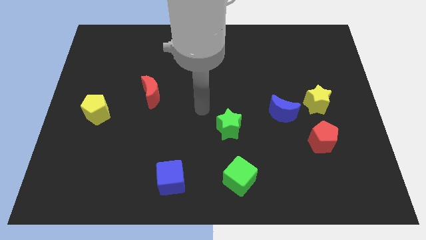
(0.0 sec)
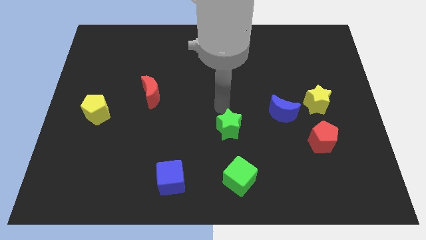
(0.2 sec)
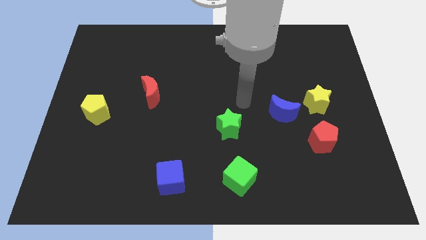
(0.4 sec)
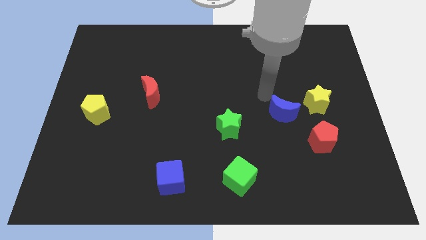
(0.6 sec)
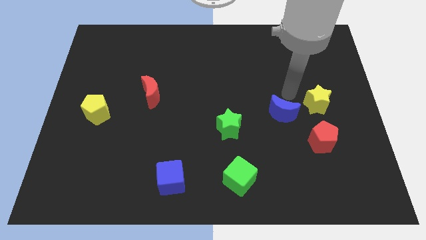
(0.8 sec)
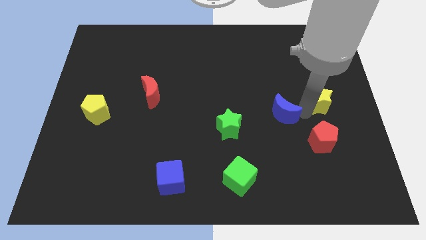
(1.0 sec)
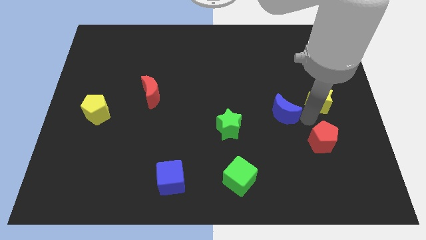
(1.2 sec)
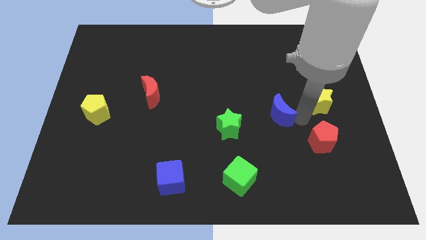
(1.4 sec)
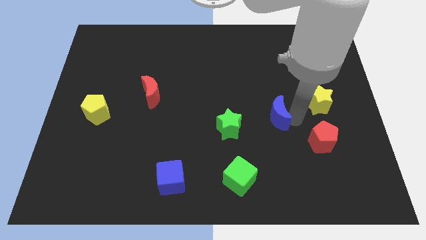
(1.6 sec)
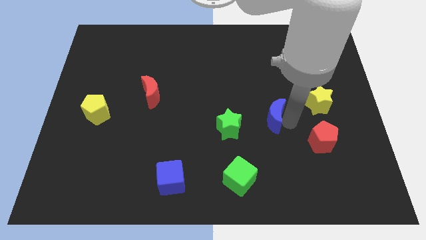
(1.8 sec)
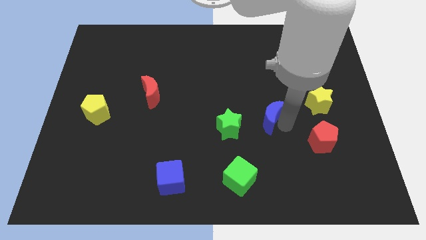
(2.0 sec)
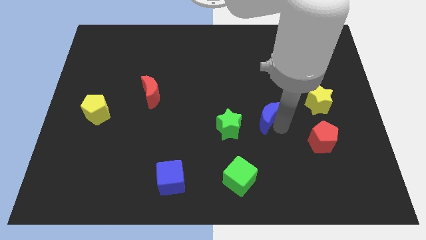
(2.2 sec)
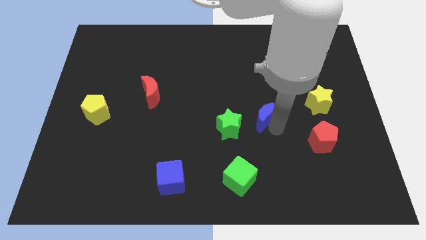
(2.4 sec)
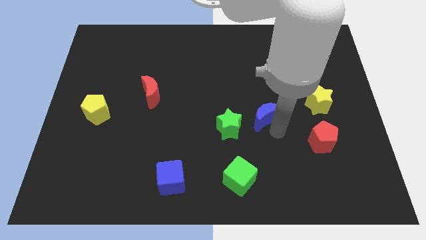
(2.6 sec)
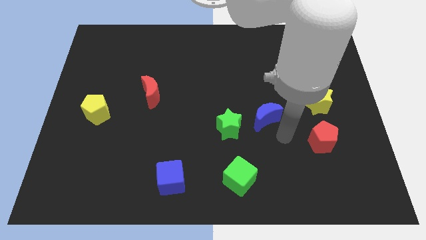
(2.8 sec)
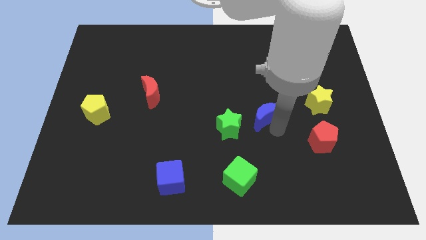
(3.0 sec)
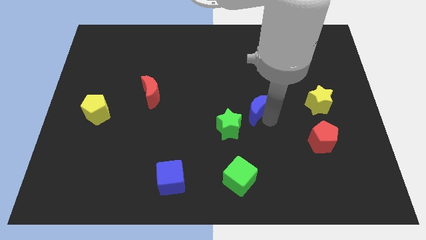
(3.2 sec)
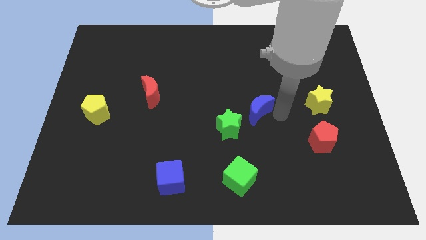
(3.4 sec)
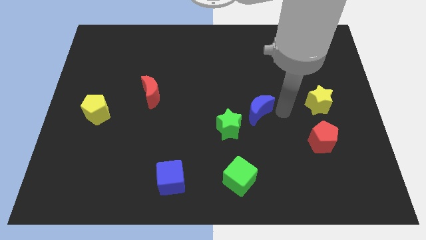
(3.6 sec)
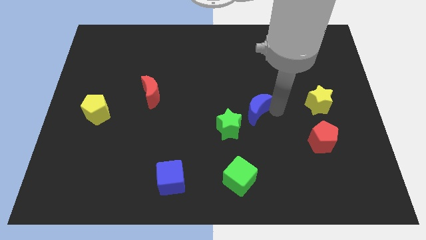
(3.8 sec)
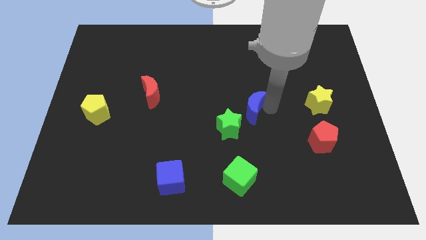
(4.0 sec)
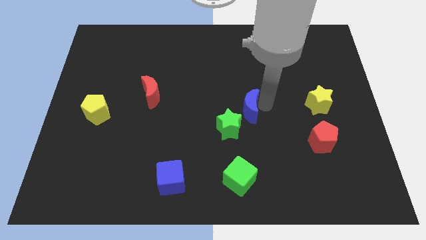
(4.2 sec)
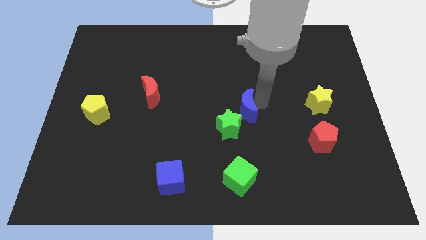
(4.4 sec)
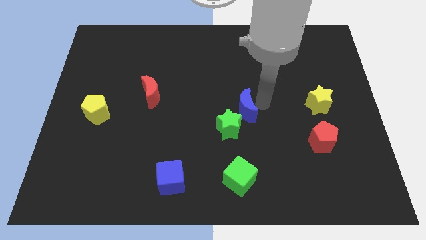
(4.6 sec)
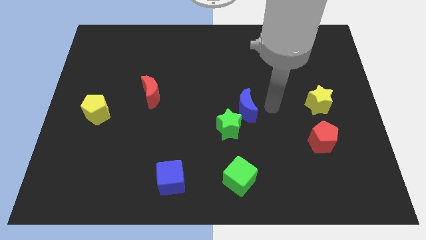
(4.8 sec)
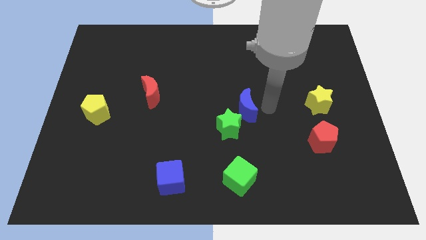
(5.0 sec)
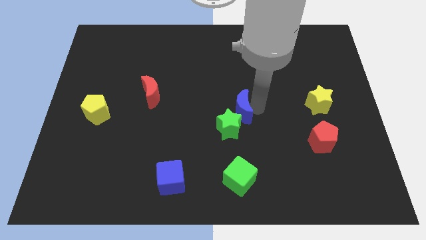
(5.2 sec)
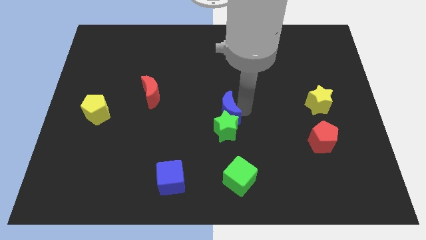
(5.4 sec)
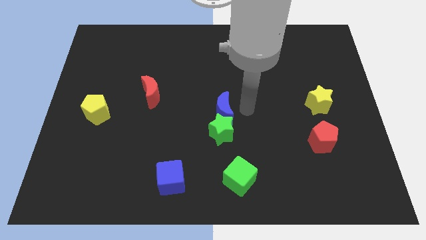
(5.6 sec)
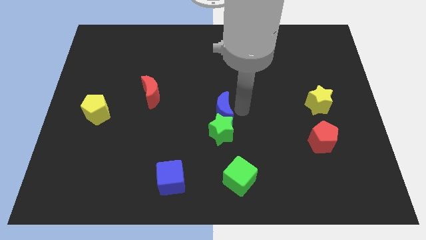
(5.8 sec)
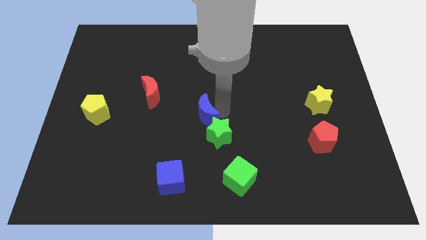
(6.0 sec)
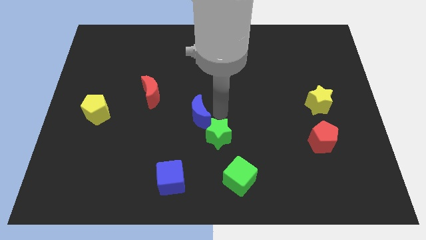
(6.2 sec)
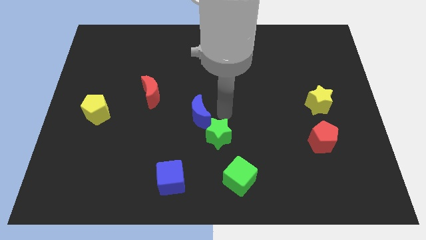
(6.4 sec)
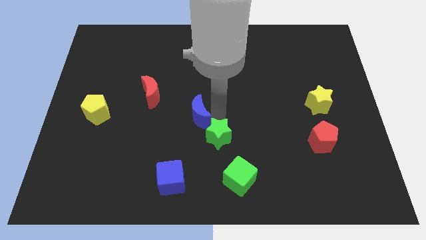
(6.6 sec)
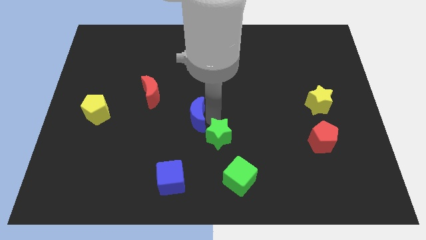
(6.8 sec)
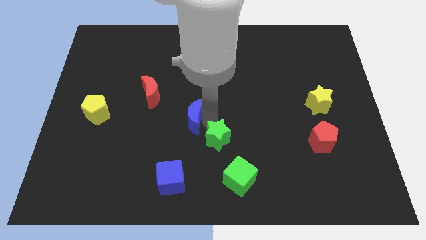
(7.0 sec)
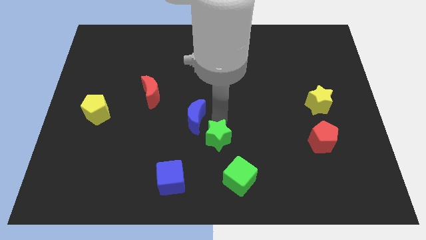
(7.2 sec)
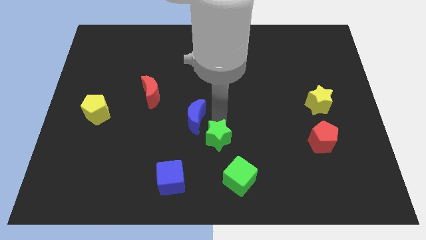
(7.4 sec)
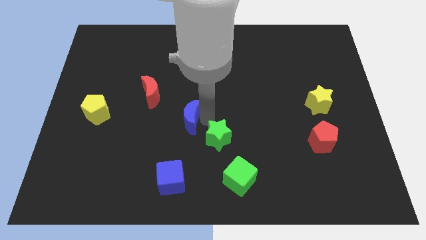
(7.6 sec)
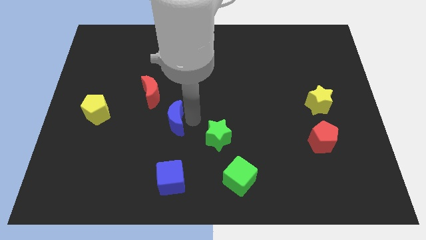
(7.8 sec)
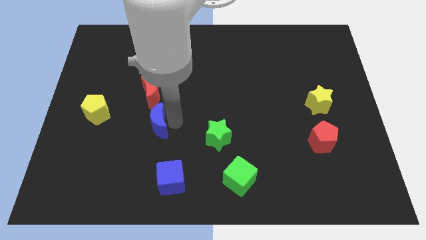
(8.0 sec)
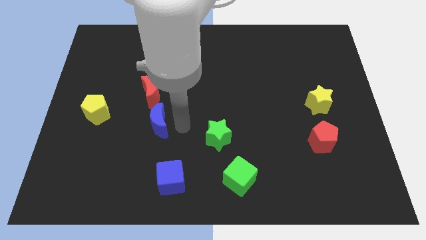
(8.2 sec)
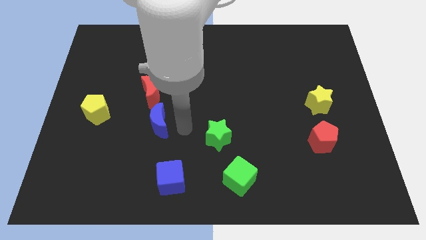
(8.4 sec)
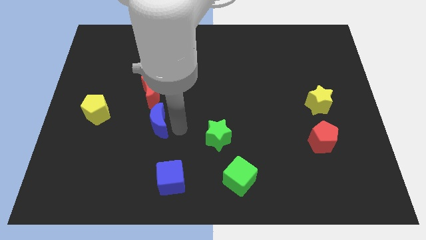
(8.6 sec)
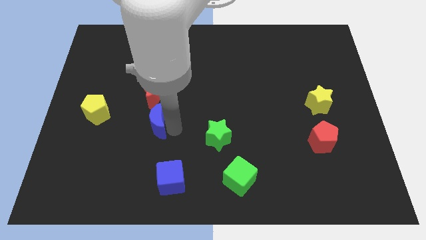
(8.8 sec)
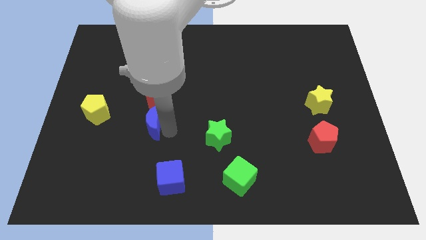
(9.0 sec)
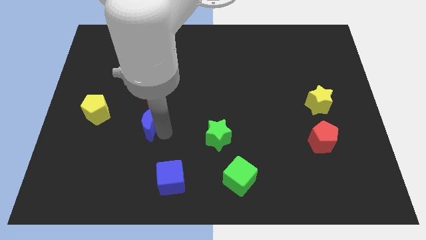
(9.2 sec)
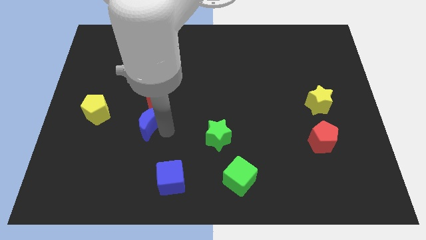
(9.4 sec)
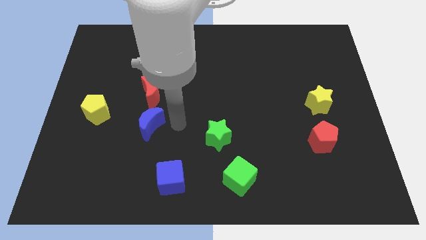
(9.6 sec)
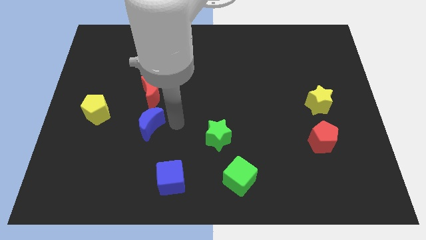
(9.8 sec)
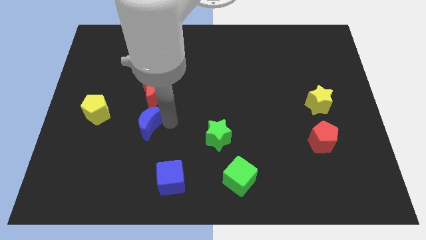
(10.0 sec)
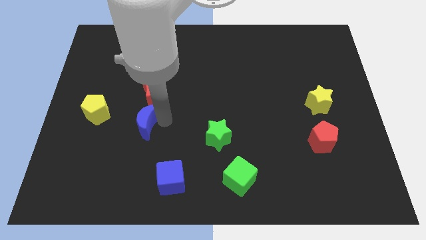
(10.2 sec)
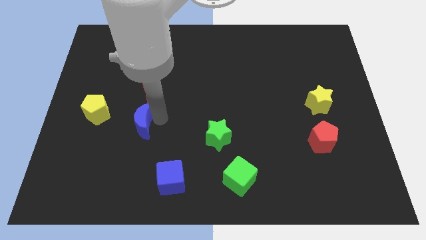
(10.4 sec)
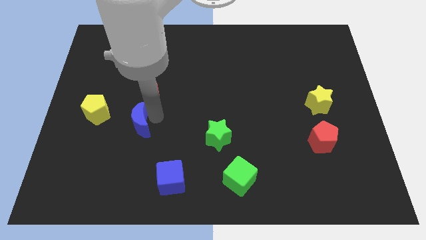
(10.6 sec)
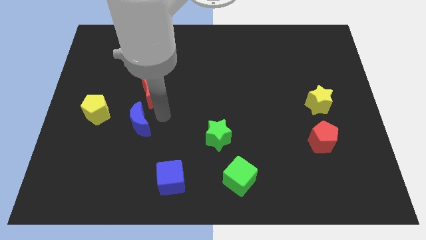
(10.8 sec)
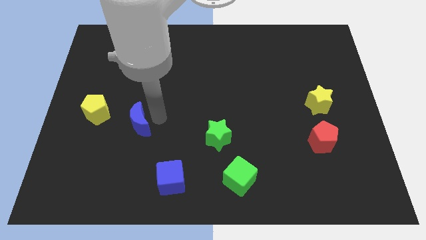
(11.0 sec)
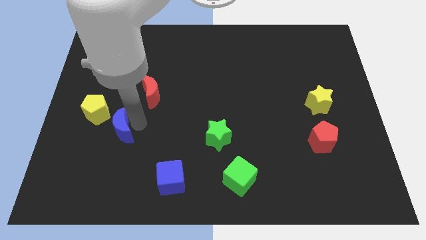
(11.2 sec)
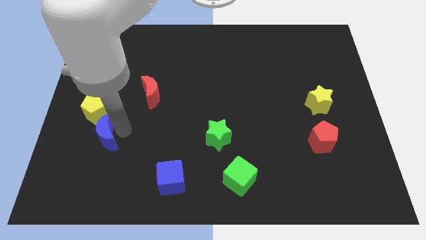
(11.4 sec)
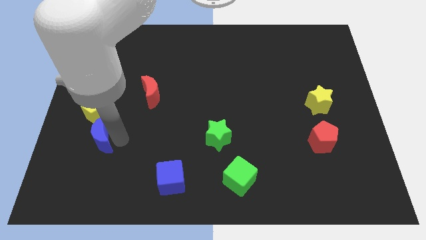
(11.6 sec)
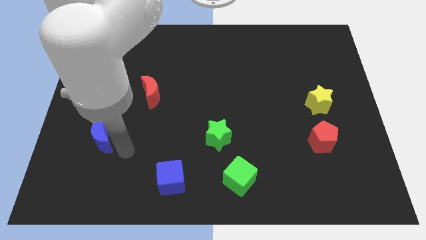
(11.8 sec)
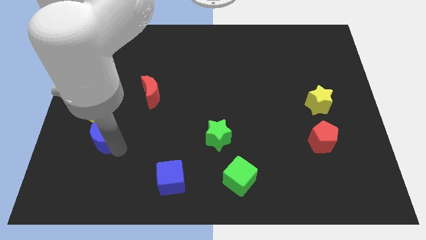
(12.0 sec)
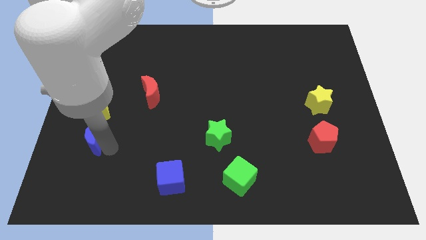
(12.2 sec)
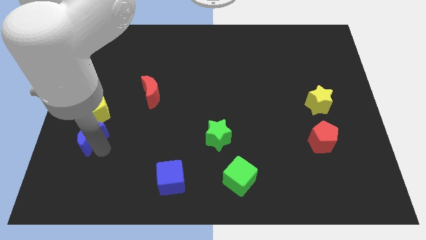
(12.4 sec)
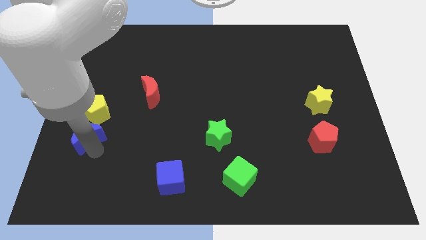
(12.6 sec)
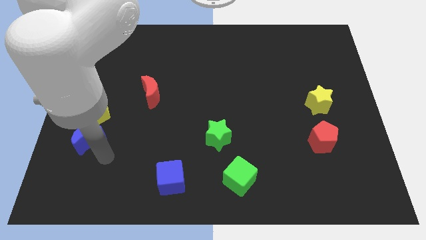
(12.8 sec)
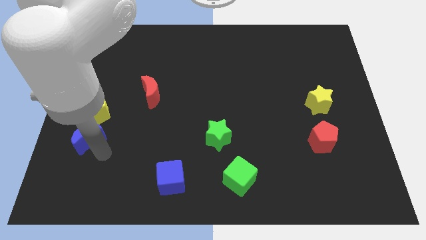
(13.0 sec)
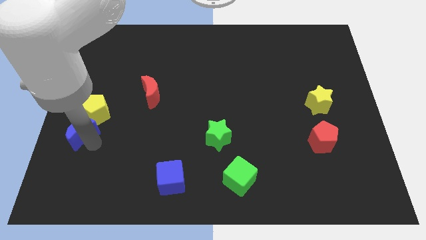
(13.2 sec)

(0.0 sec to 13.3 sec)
slide the blue moon to the left side of the board
